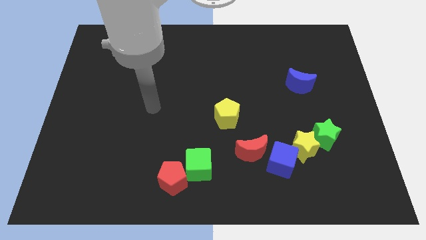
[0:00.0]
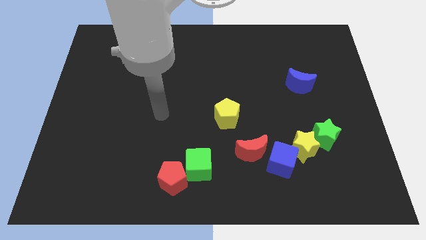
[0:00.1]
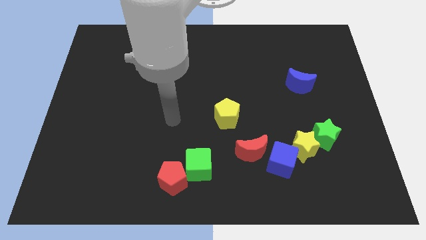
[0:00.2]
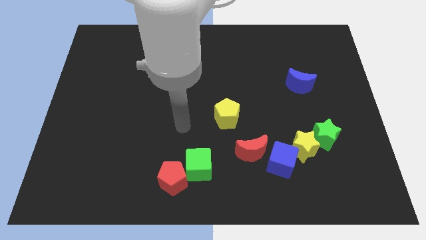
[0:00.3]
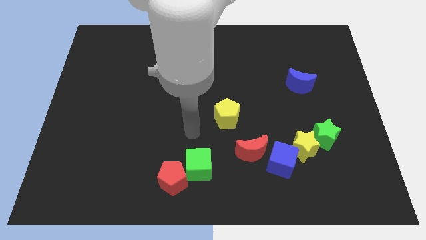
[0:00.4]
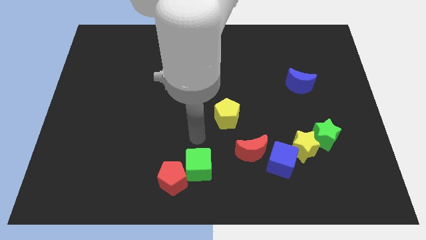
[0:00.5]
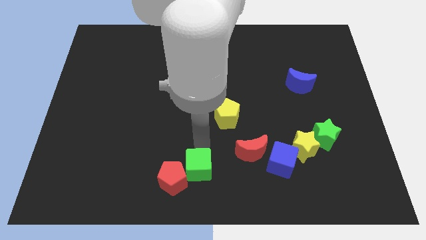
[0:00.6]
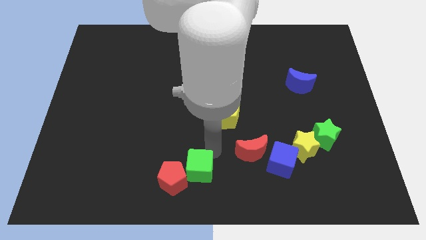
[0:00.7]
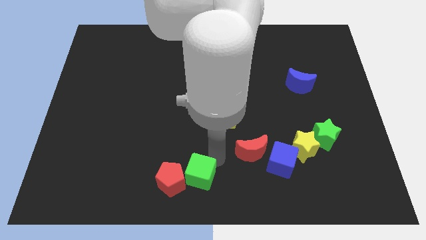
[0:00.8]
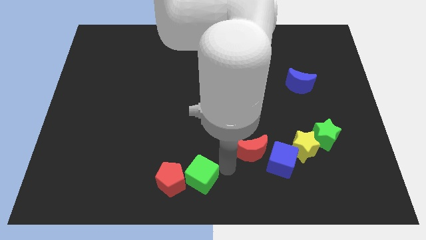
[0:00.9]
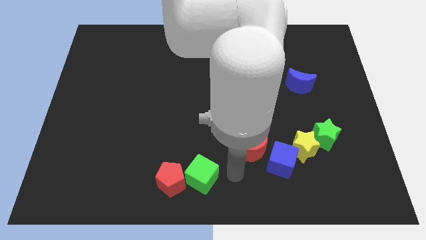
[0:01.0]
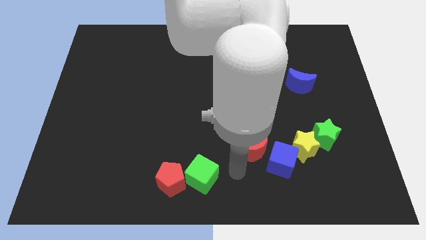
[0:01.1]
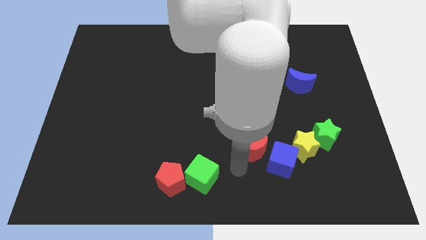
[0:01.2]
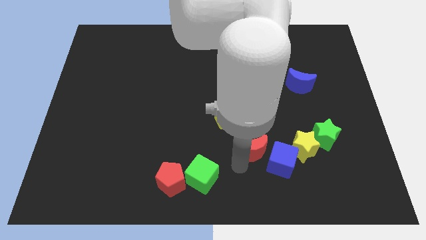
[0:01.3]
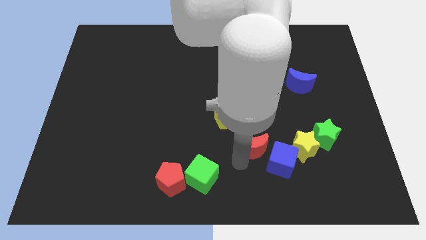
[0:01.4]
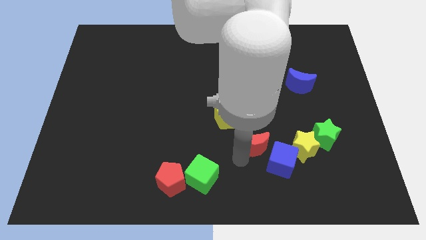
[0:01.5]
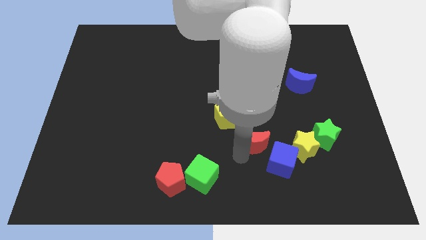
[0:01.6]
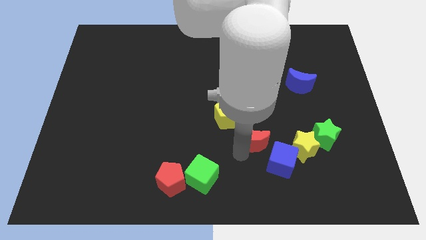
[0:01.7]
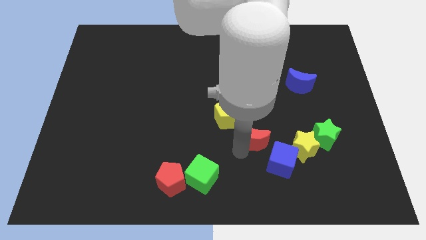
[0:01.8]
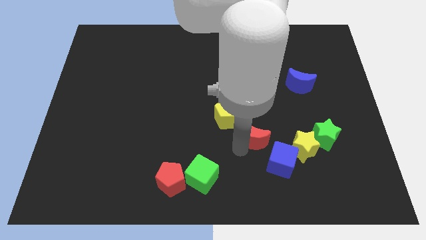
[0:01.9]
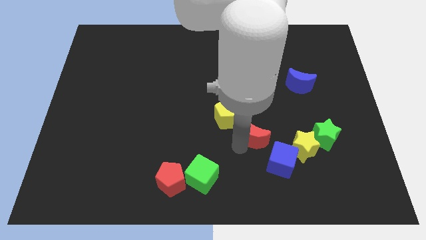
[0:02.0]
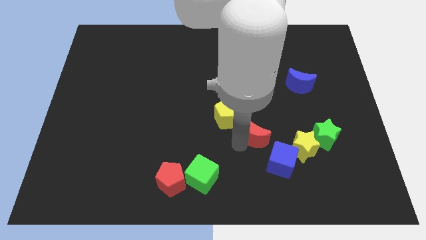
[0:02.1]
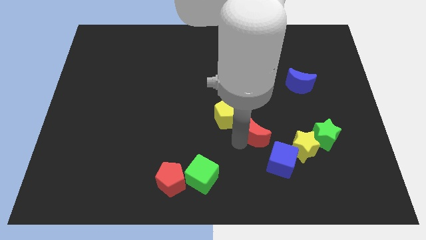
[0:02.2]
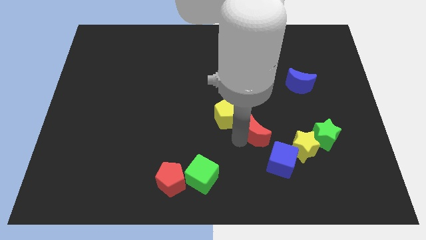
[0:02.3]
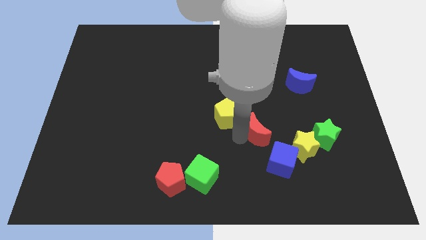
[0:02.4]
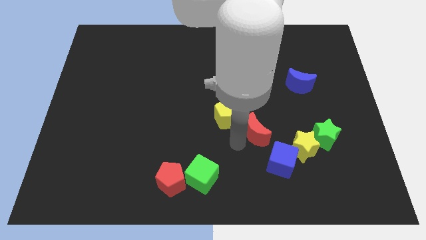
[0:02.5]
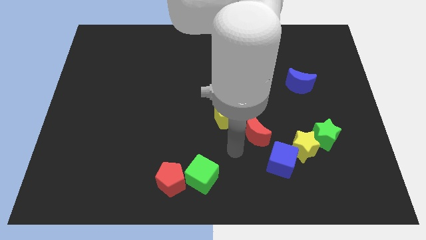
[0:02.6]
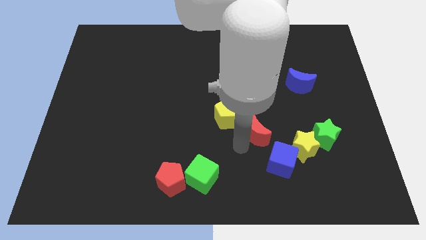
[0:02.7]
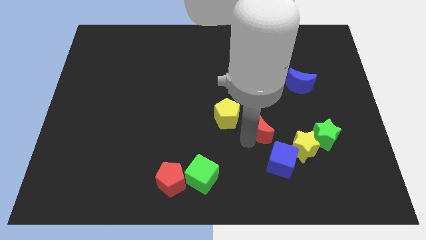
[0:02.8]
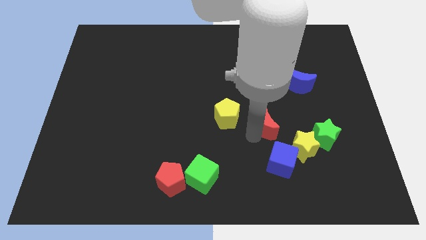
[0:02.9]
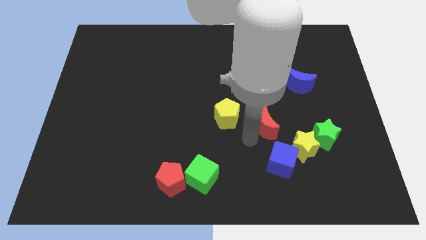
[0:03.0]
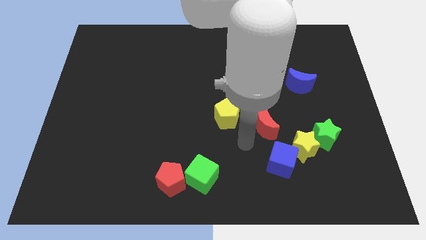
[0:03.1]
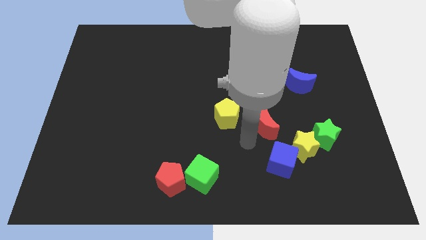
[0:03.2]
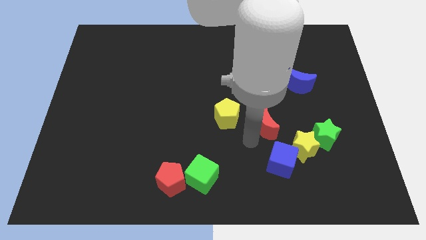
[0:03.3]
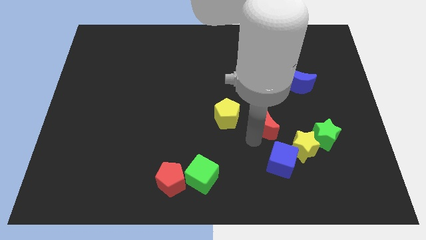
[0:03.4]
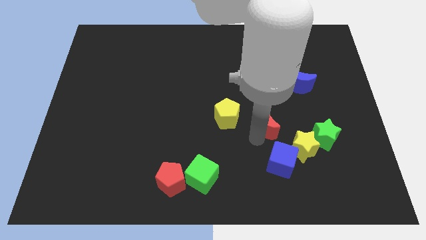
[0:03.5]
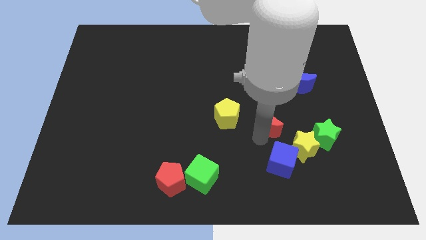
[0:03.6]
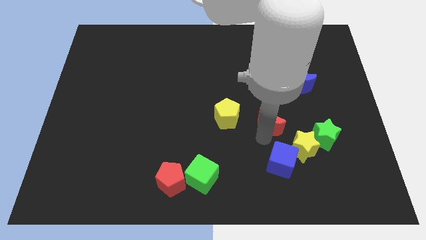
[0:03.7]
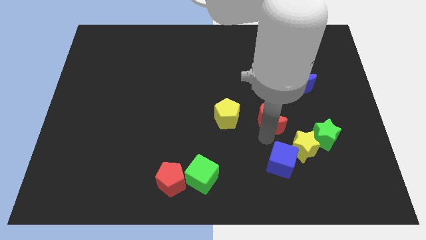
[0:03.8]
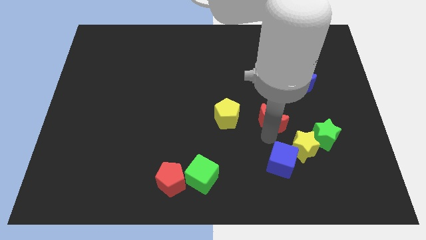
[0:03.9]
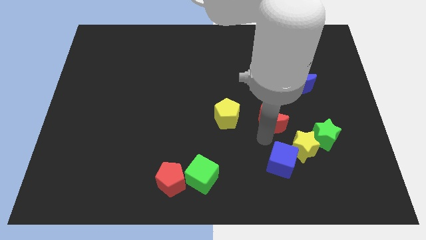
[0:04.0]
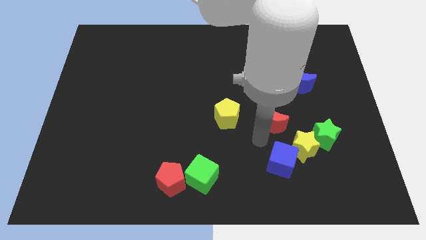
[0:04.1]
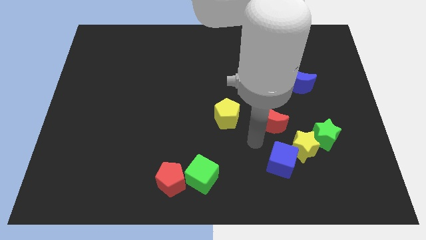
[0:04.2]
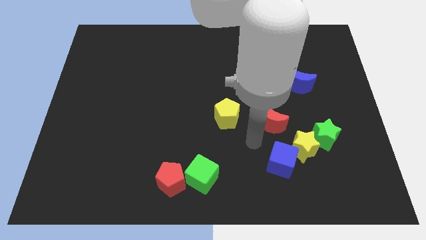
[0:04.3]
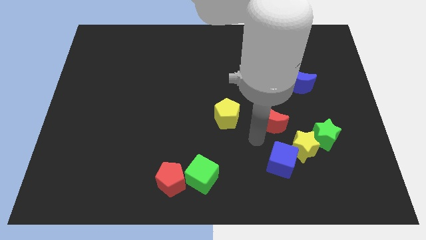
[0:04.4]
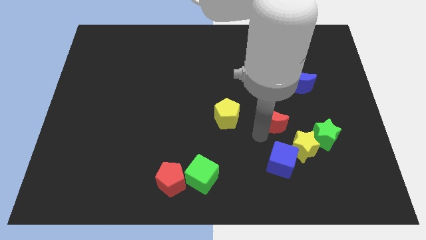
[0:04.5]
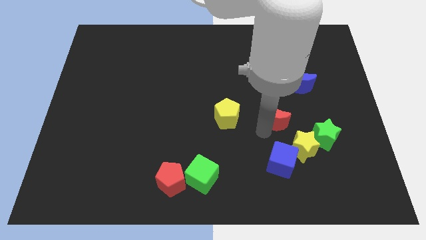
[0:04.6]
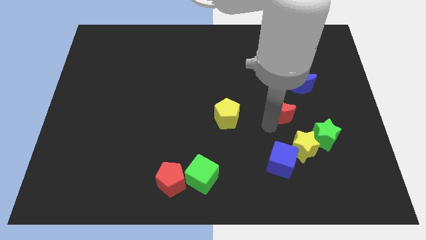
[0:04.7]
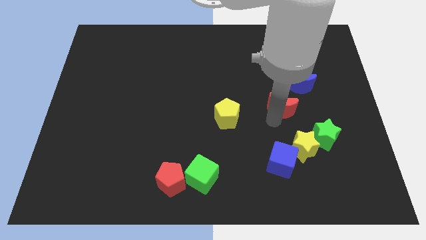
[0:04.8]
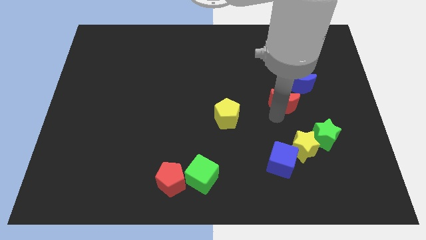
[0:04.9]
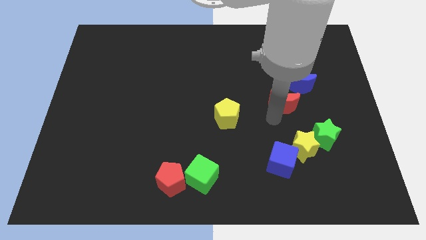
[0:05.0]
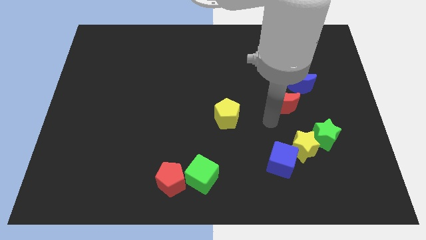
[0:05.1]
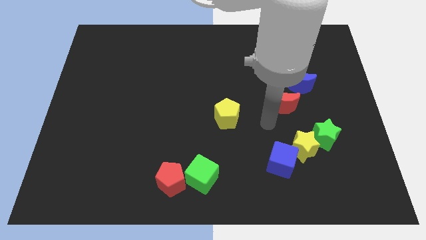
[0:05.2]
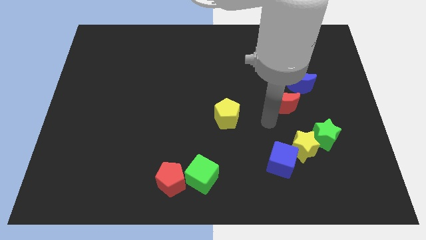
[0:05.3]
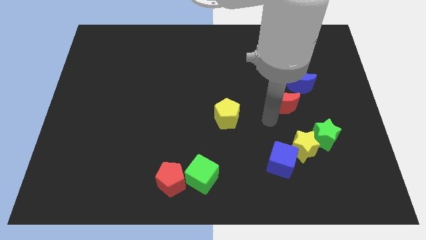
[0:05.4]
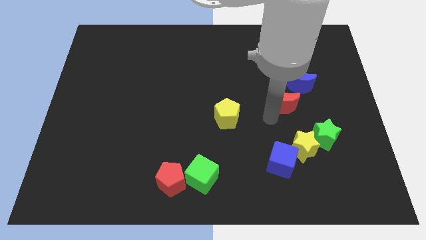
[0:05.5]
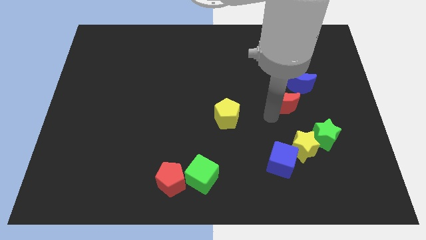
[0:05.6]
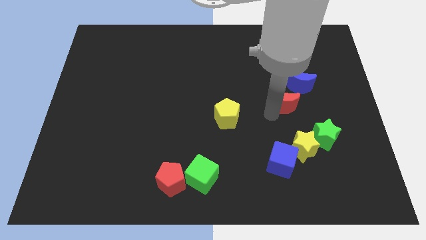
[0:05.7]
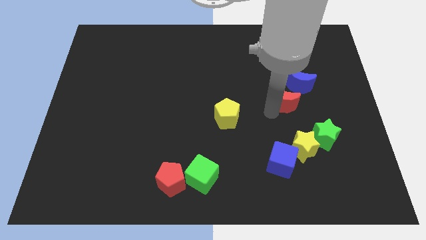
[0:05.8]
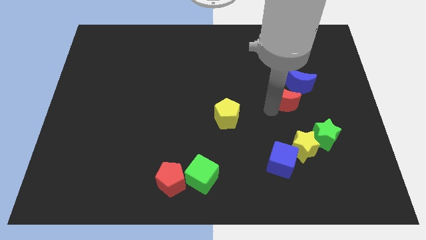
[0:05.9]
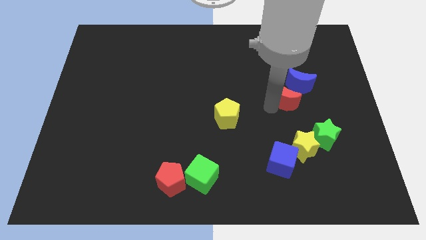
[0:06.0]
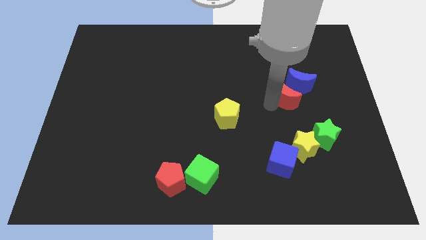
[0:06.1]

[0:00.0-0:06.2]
push the red moon close to the blue moon

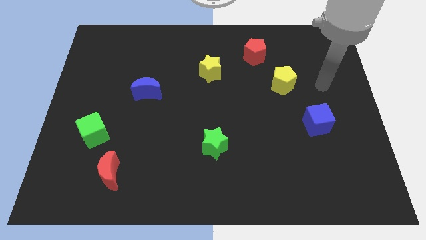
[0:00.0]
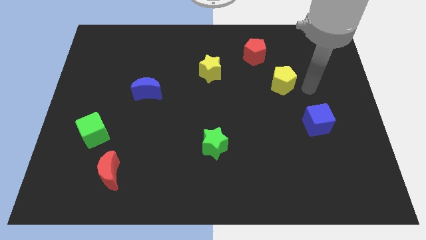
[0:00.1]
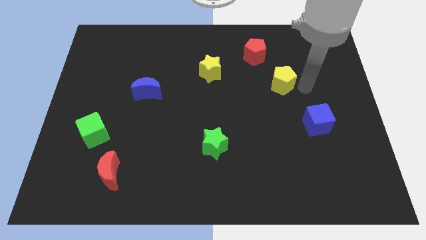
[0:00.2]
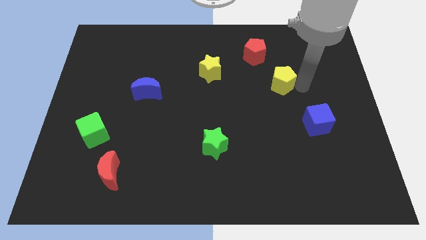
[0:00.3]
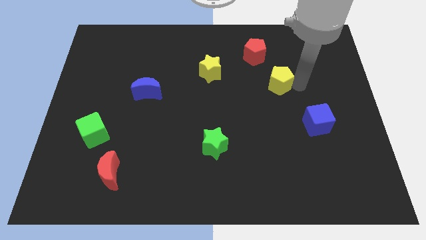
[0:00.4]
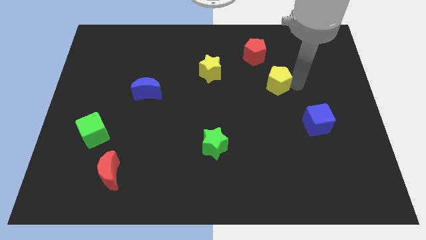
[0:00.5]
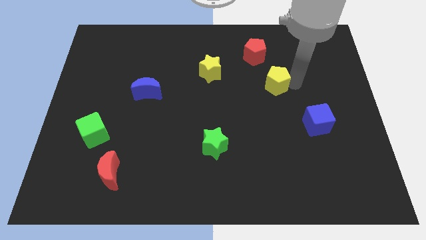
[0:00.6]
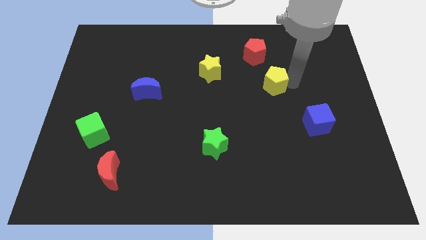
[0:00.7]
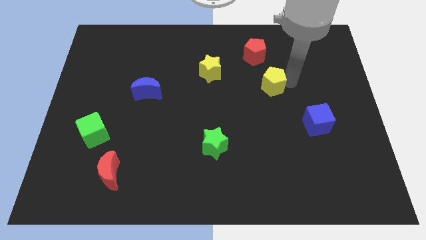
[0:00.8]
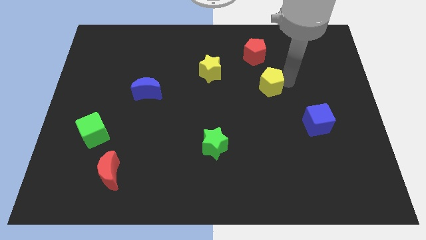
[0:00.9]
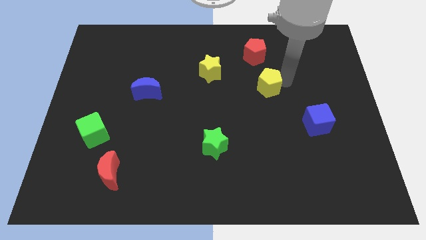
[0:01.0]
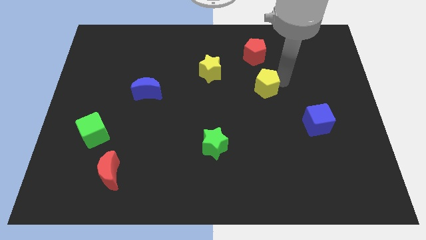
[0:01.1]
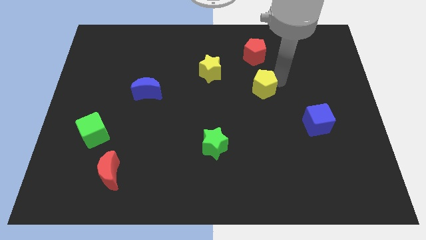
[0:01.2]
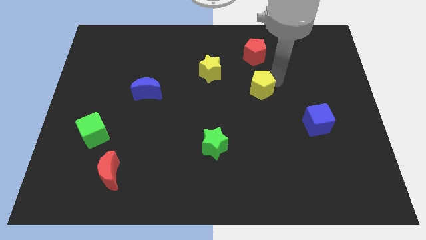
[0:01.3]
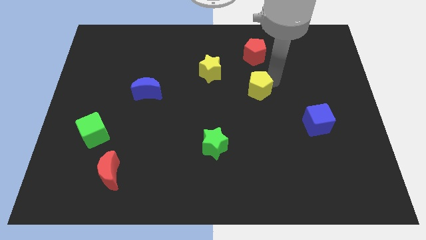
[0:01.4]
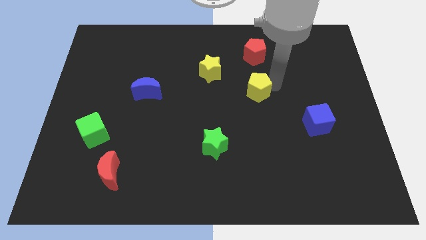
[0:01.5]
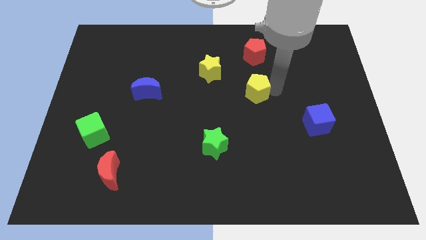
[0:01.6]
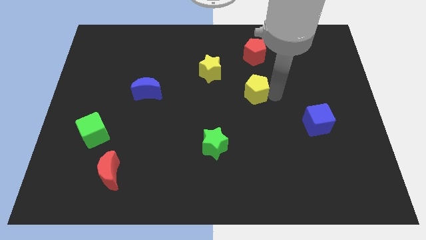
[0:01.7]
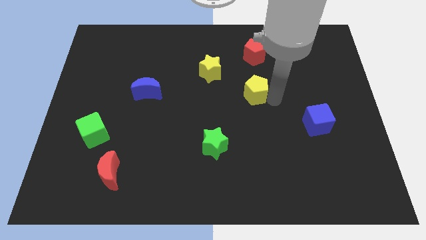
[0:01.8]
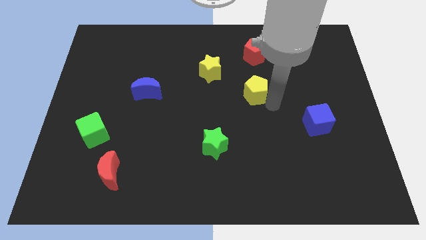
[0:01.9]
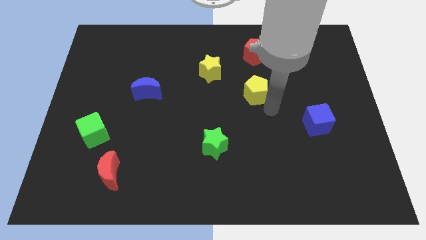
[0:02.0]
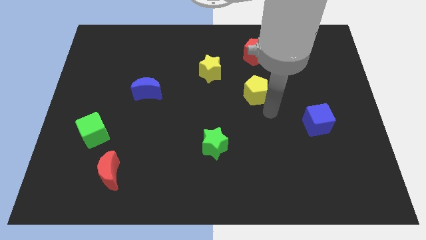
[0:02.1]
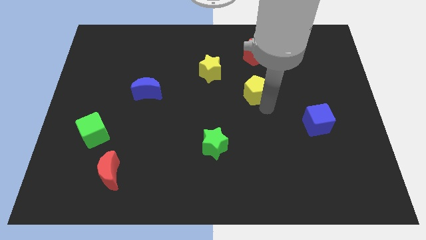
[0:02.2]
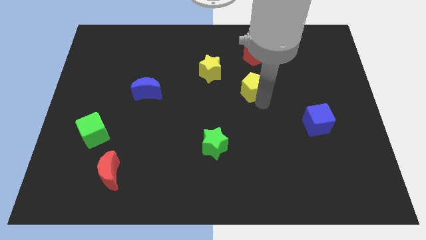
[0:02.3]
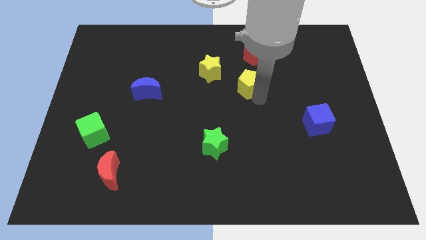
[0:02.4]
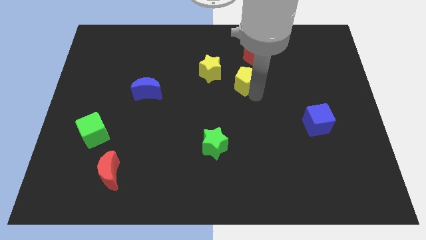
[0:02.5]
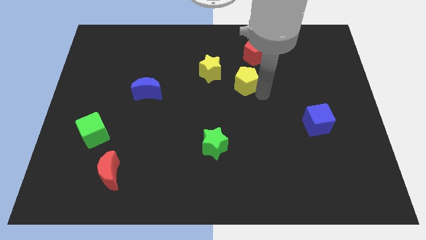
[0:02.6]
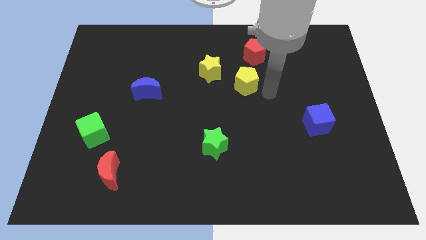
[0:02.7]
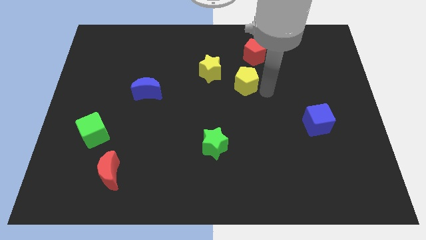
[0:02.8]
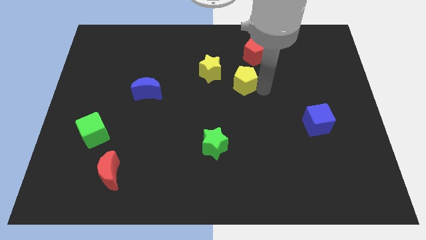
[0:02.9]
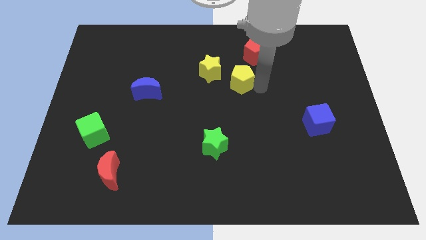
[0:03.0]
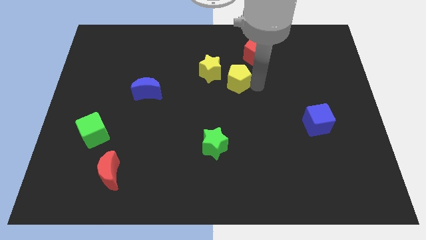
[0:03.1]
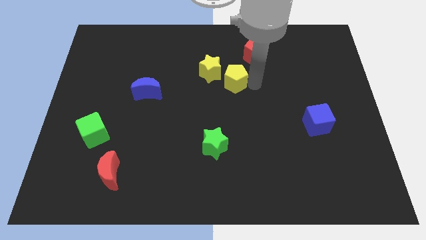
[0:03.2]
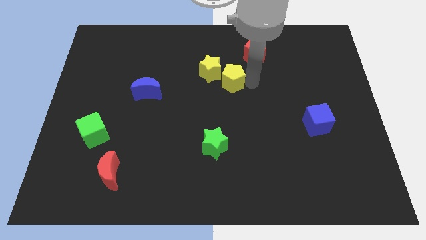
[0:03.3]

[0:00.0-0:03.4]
put the yellow pentagon to the yellow star
